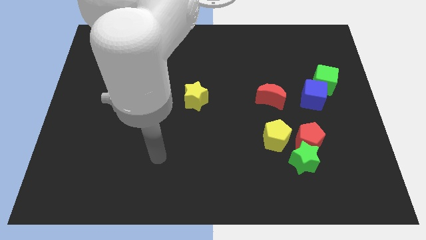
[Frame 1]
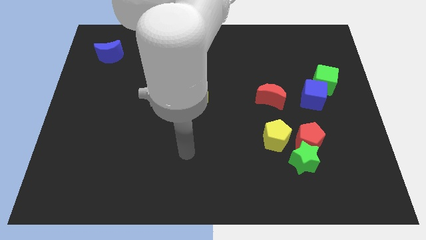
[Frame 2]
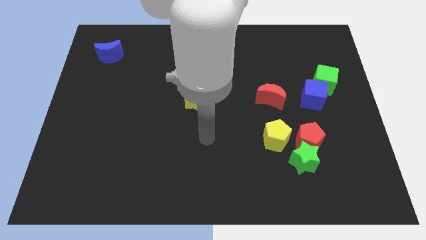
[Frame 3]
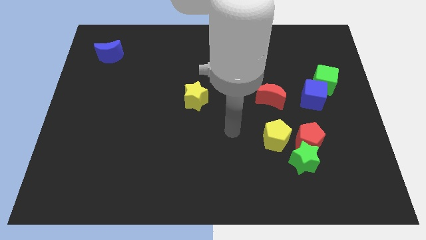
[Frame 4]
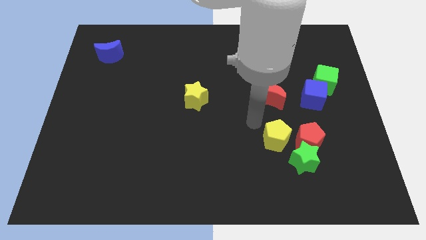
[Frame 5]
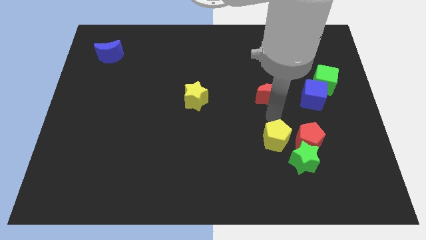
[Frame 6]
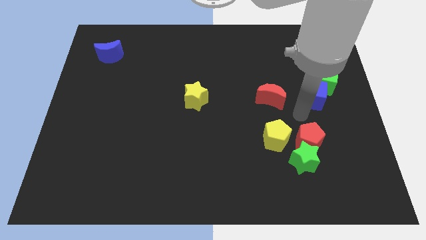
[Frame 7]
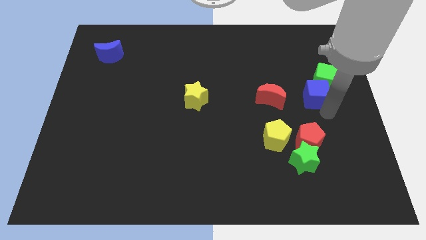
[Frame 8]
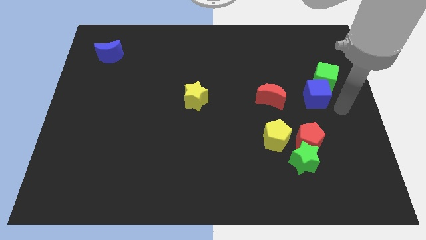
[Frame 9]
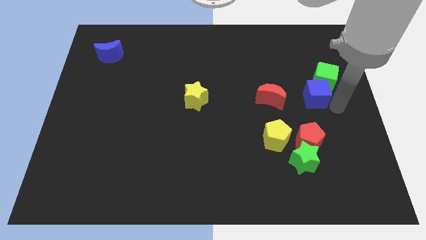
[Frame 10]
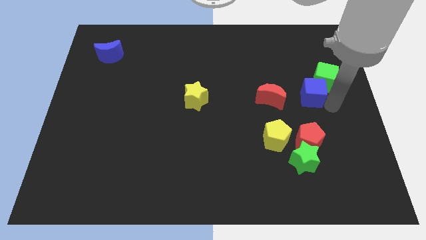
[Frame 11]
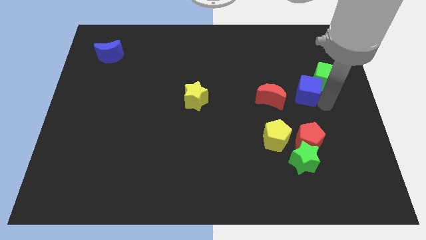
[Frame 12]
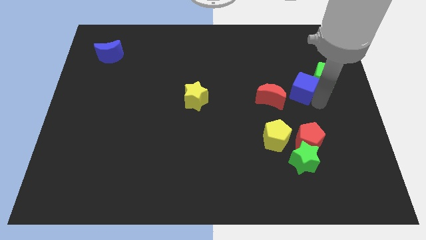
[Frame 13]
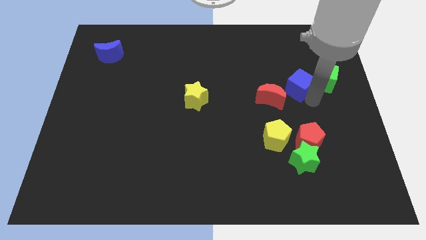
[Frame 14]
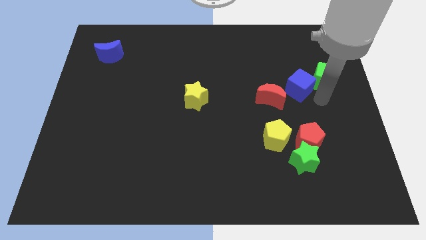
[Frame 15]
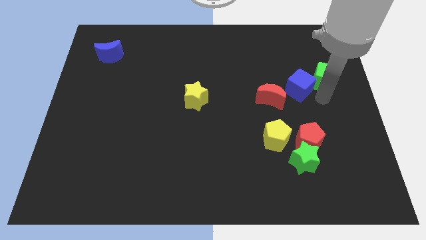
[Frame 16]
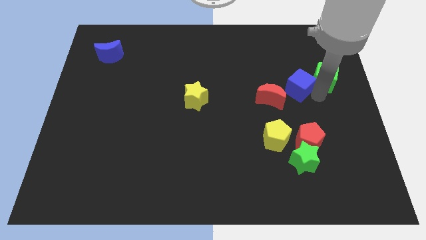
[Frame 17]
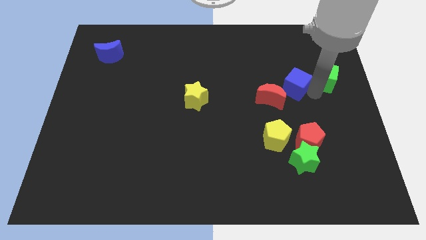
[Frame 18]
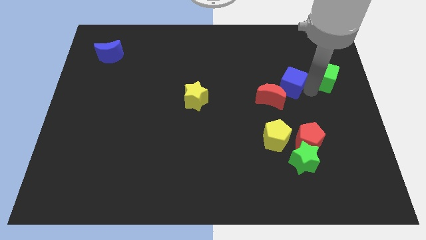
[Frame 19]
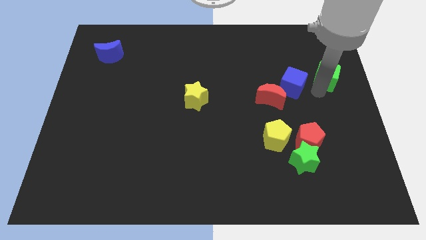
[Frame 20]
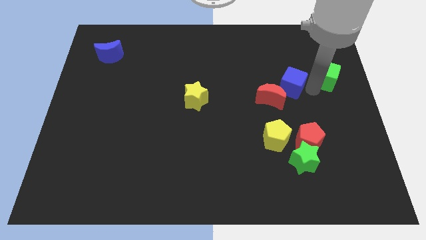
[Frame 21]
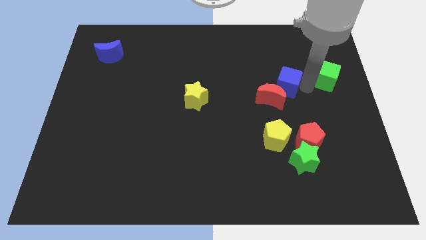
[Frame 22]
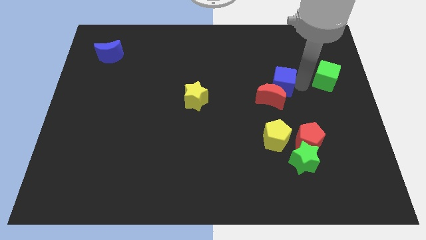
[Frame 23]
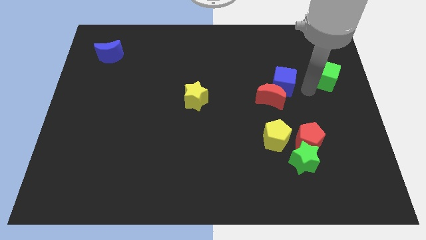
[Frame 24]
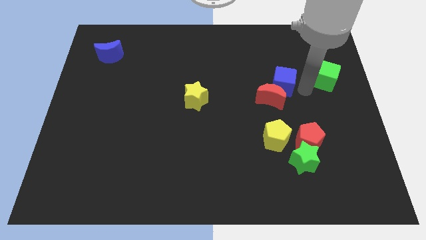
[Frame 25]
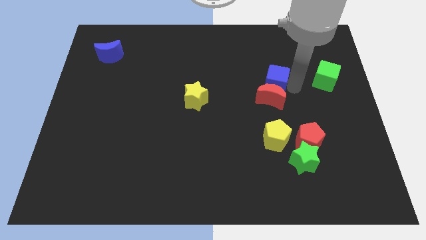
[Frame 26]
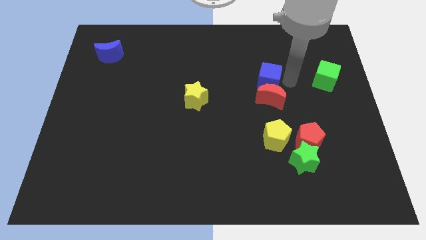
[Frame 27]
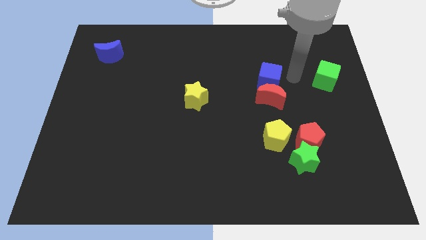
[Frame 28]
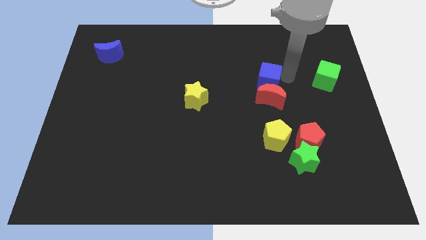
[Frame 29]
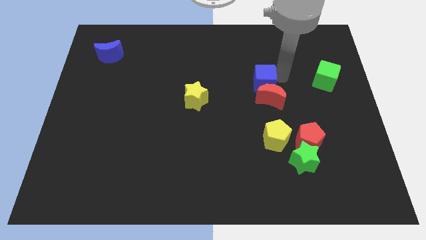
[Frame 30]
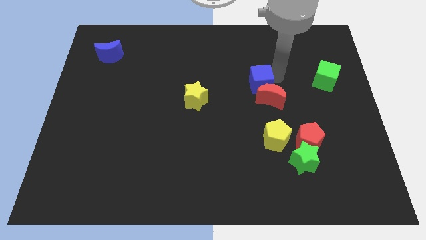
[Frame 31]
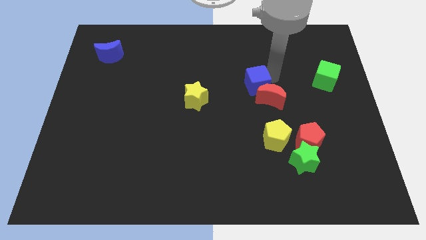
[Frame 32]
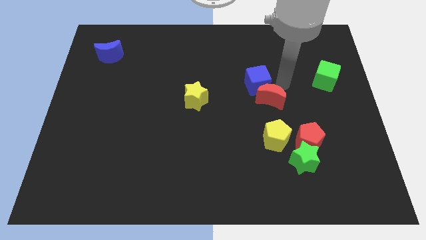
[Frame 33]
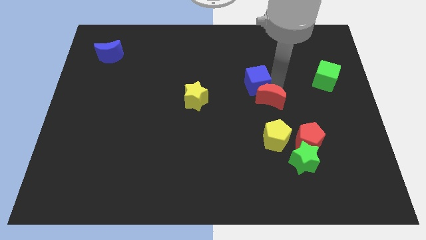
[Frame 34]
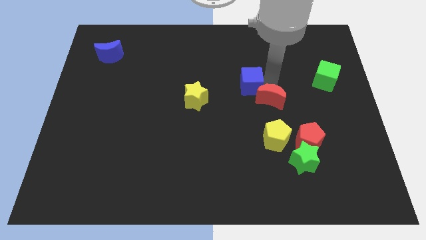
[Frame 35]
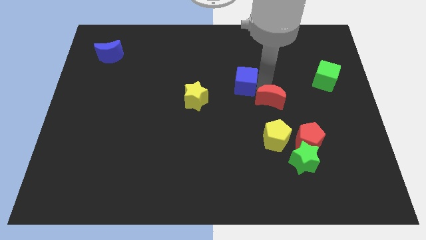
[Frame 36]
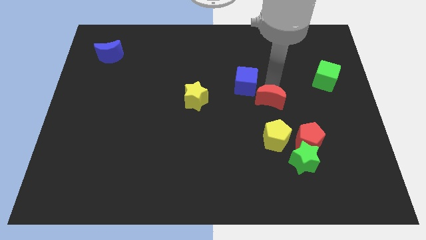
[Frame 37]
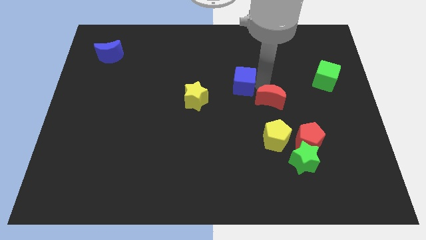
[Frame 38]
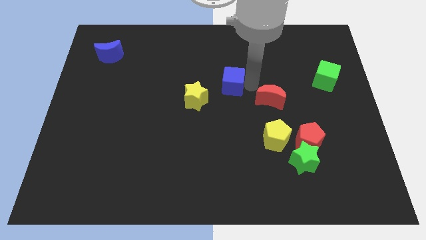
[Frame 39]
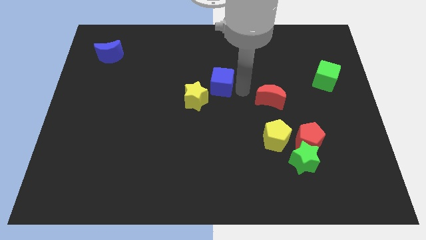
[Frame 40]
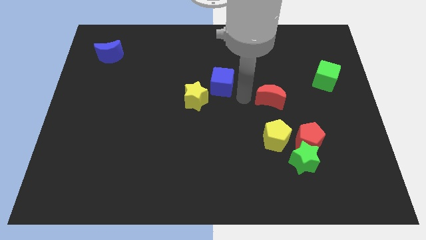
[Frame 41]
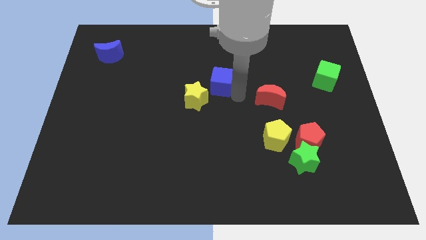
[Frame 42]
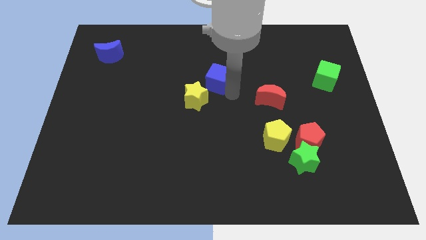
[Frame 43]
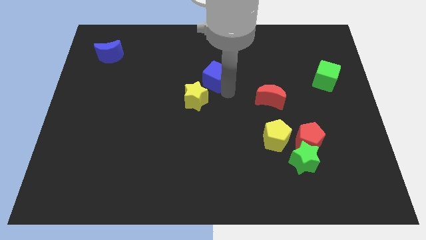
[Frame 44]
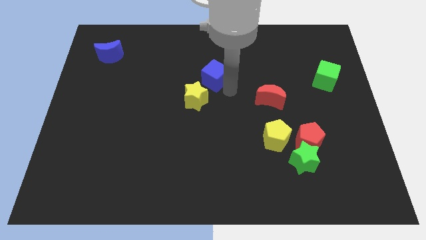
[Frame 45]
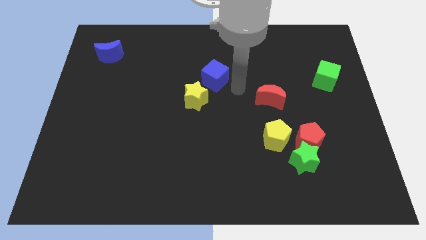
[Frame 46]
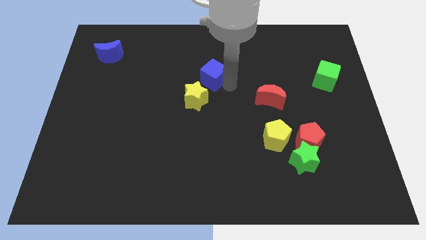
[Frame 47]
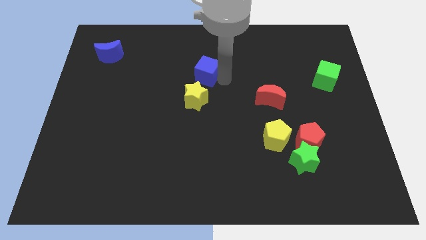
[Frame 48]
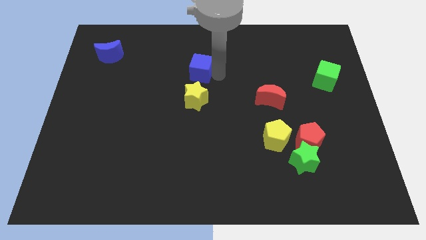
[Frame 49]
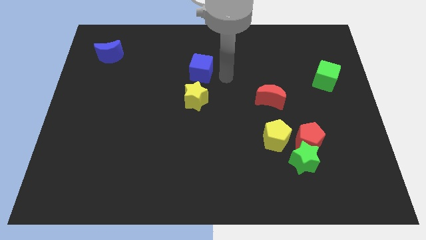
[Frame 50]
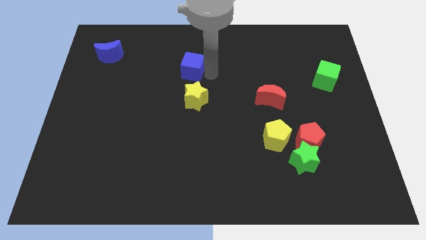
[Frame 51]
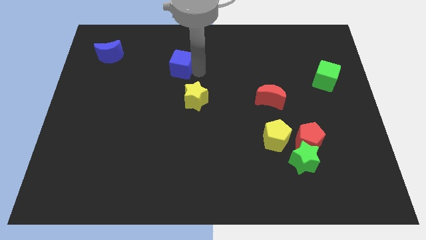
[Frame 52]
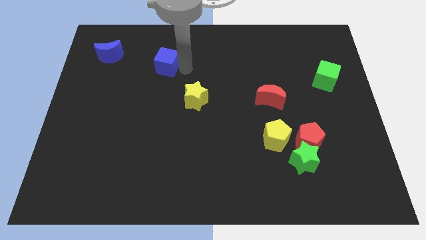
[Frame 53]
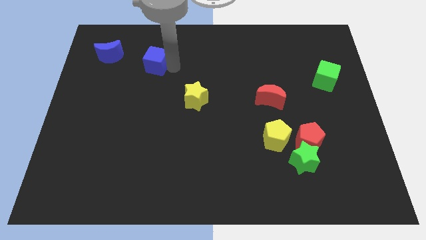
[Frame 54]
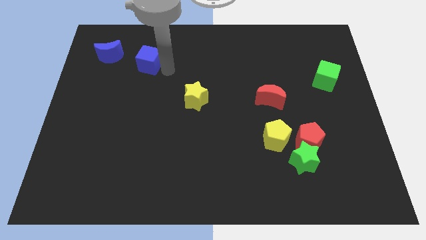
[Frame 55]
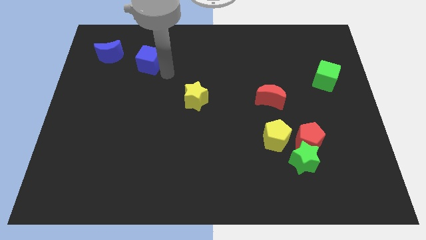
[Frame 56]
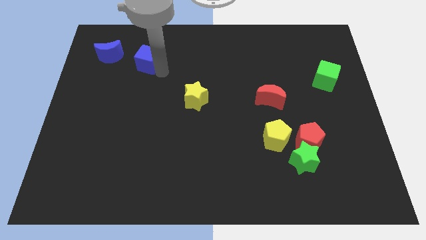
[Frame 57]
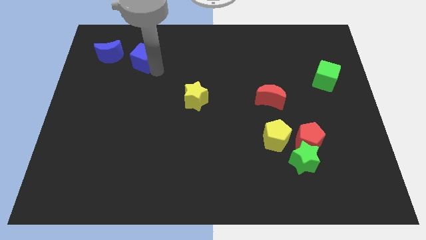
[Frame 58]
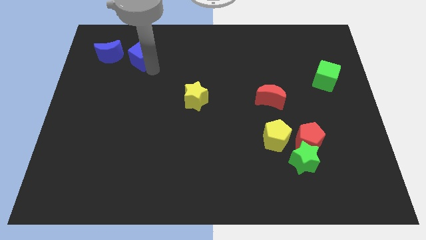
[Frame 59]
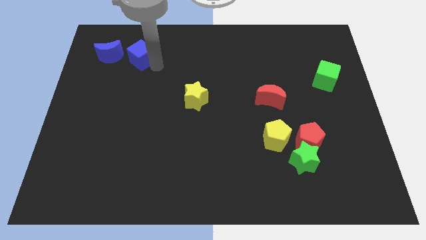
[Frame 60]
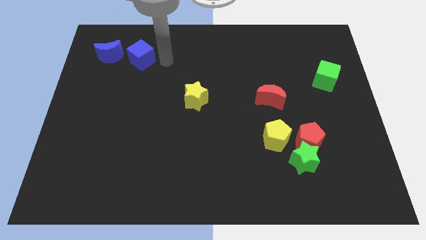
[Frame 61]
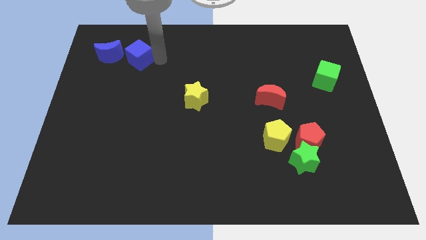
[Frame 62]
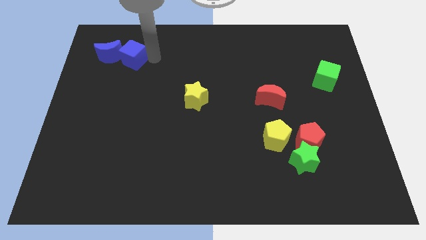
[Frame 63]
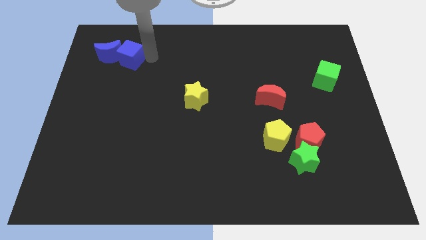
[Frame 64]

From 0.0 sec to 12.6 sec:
move the blue cube close to the blue moon
